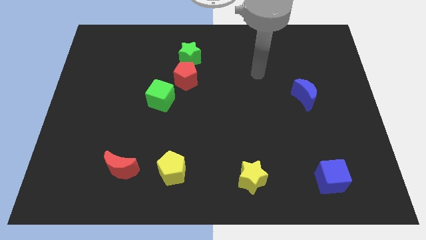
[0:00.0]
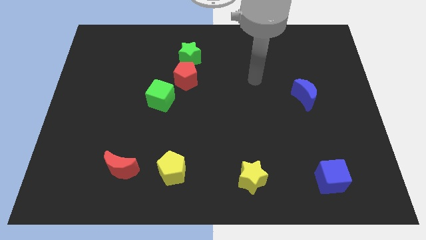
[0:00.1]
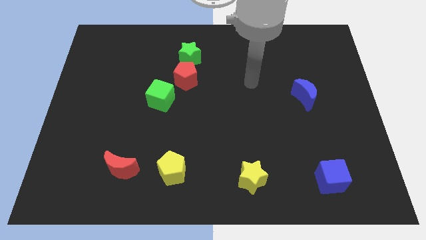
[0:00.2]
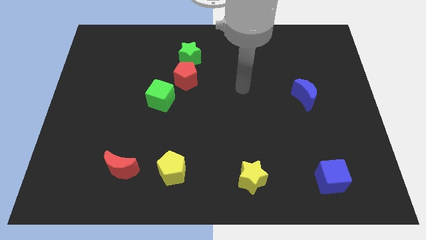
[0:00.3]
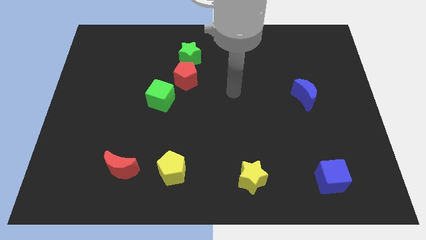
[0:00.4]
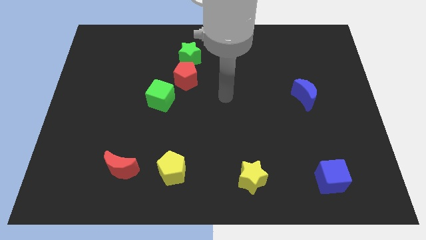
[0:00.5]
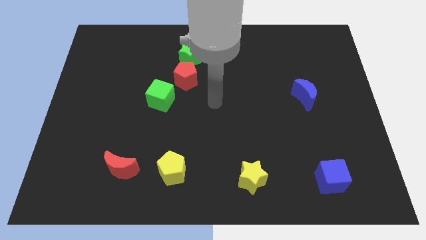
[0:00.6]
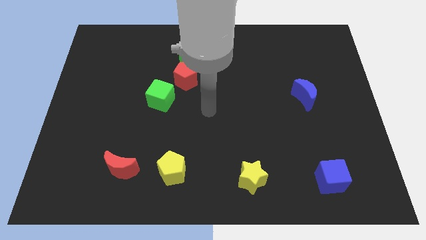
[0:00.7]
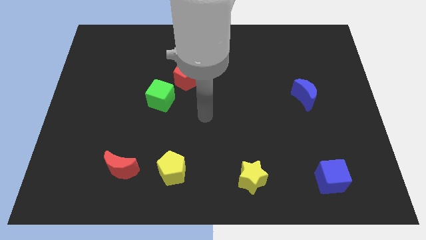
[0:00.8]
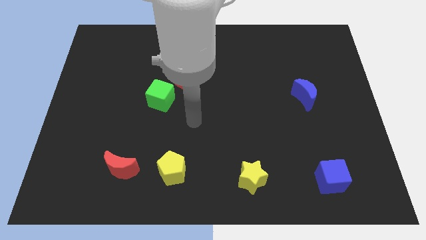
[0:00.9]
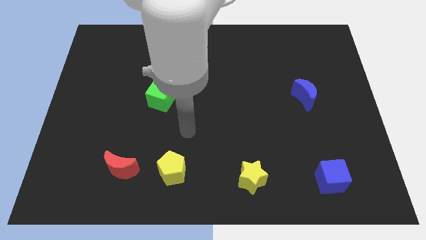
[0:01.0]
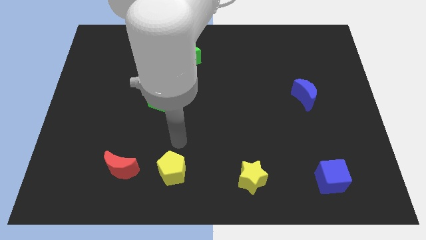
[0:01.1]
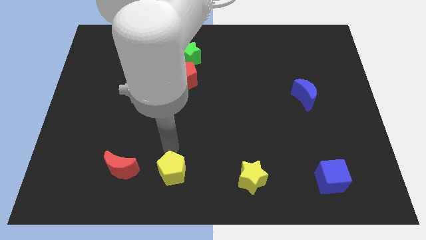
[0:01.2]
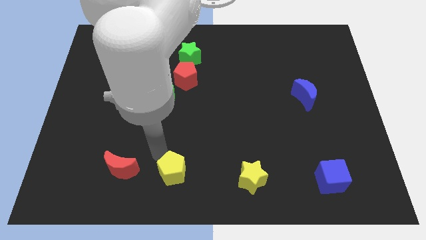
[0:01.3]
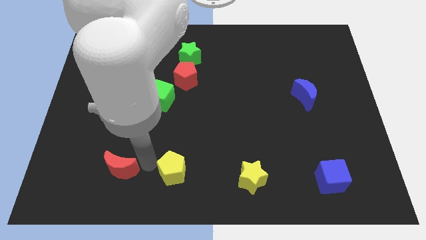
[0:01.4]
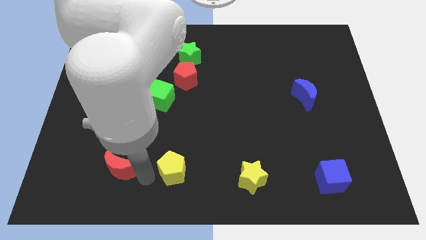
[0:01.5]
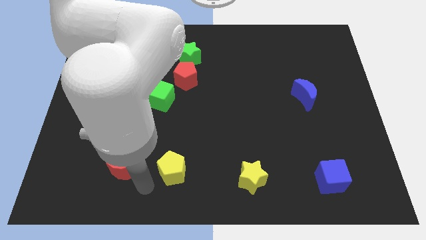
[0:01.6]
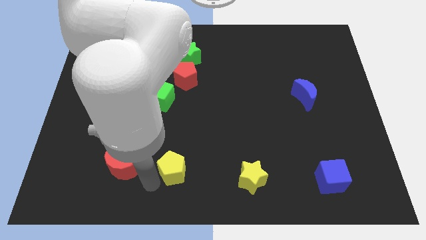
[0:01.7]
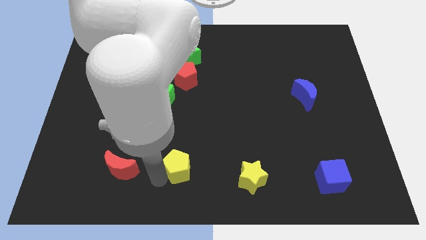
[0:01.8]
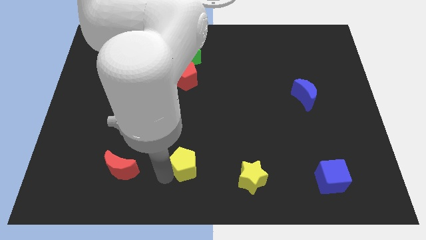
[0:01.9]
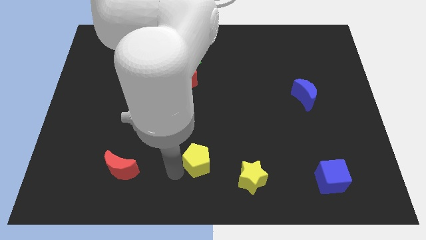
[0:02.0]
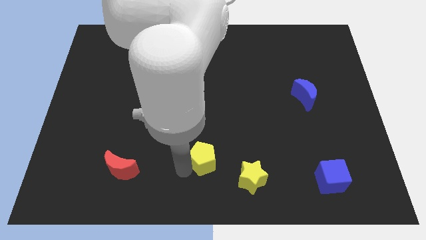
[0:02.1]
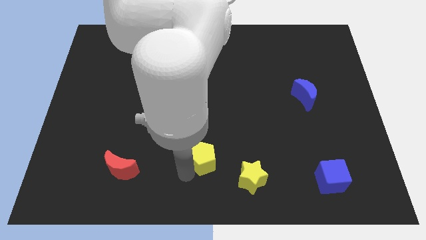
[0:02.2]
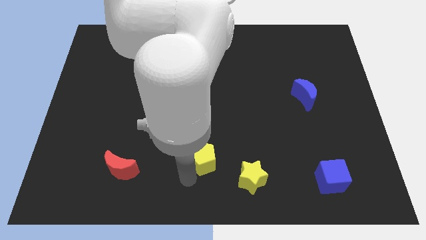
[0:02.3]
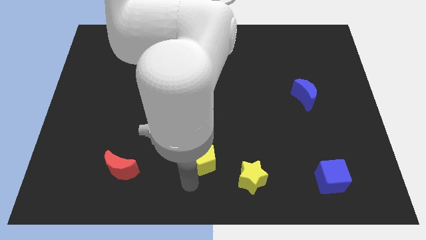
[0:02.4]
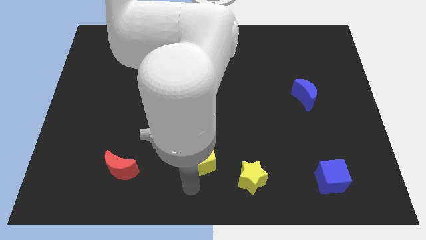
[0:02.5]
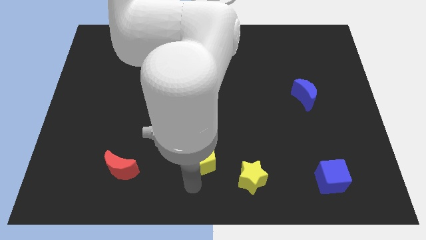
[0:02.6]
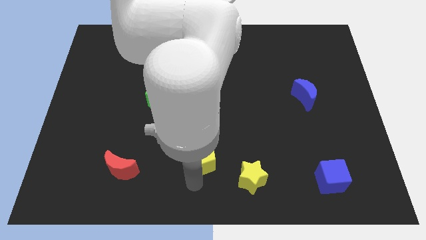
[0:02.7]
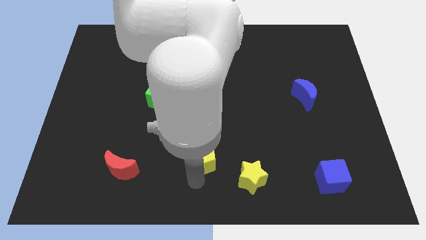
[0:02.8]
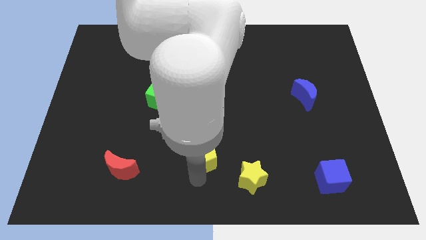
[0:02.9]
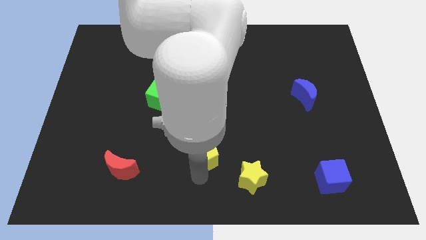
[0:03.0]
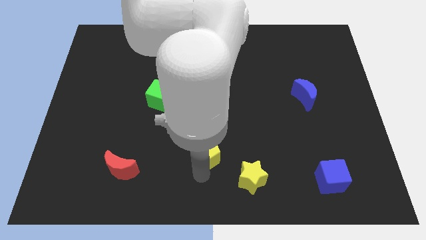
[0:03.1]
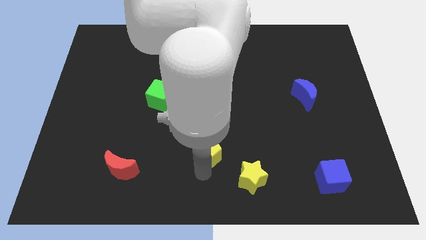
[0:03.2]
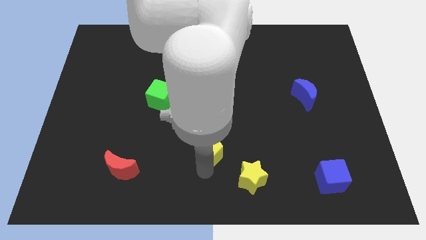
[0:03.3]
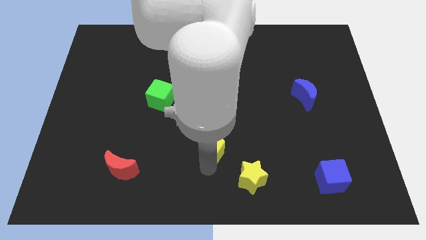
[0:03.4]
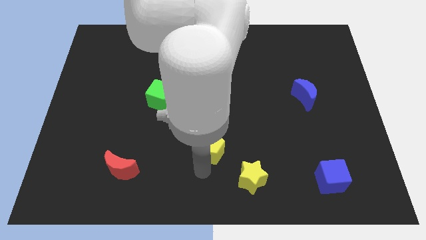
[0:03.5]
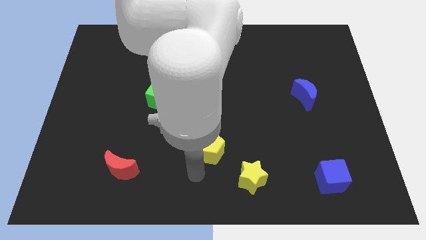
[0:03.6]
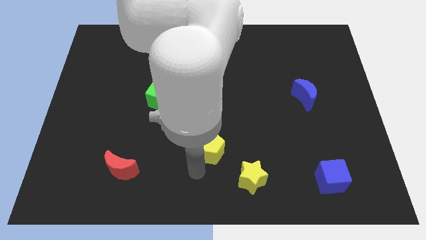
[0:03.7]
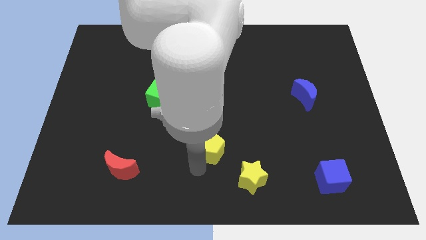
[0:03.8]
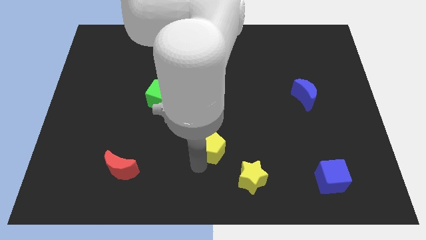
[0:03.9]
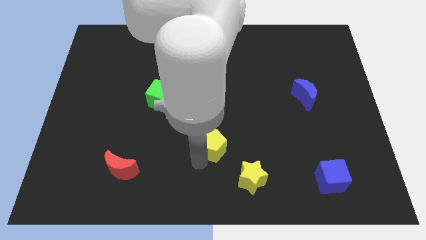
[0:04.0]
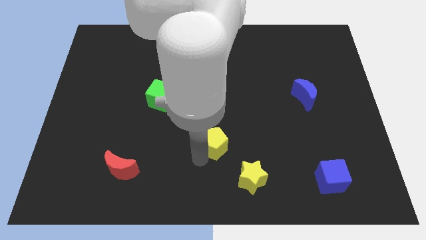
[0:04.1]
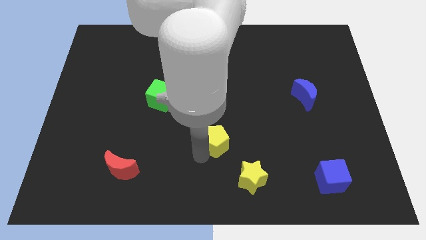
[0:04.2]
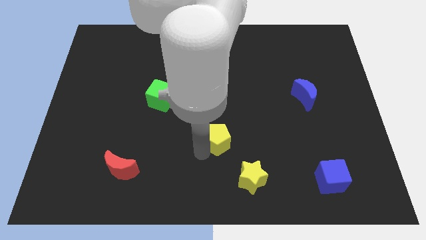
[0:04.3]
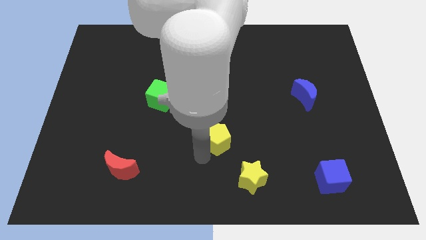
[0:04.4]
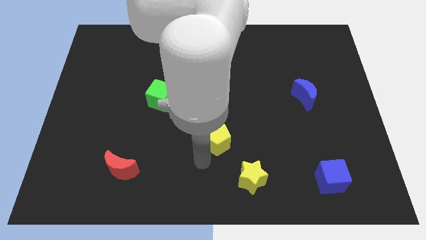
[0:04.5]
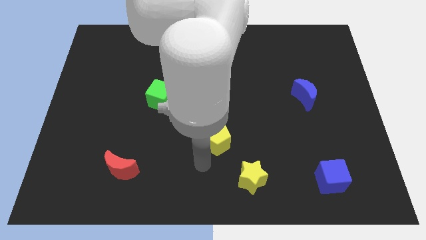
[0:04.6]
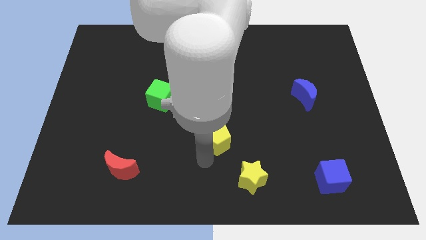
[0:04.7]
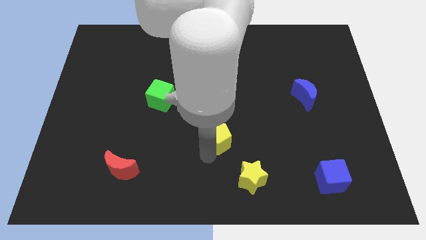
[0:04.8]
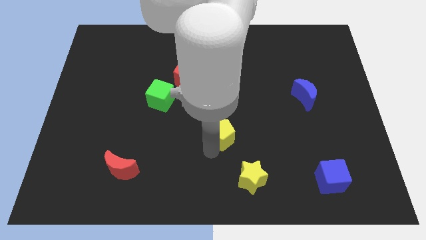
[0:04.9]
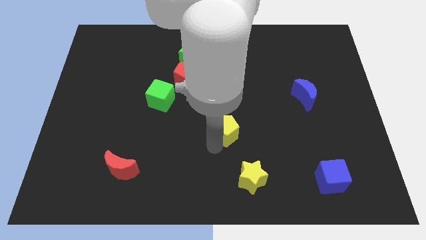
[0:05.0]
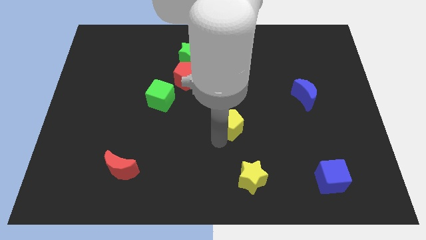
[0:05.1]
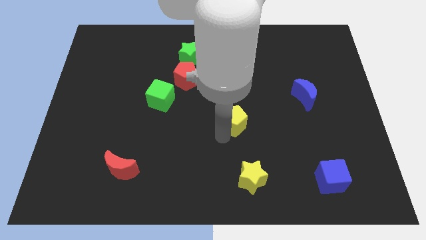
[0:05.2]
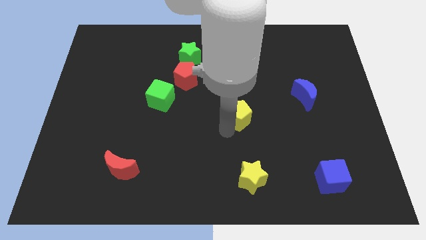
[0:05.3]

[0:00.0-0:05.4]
push the yellow pentagon up and then to the right

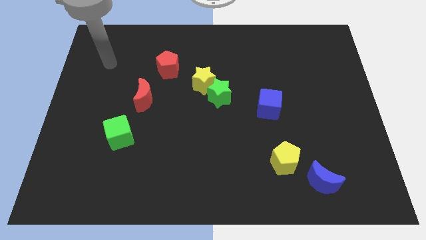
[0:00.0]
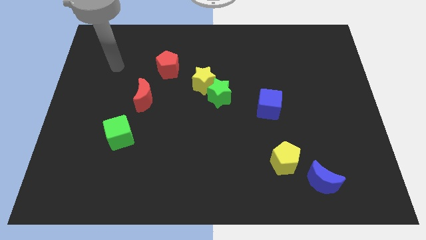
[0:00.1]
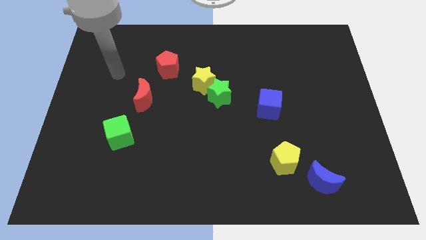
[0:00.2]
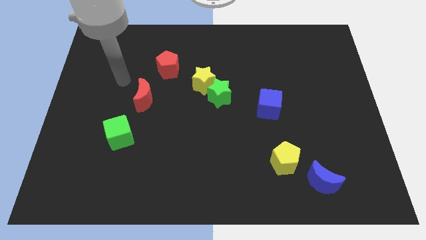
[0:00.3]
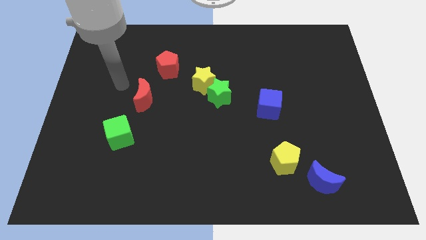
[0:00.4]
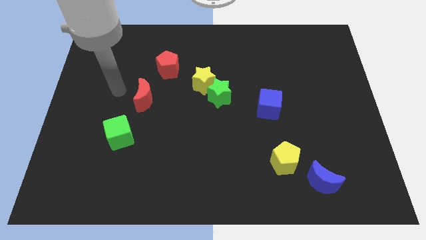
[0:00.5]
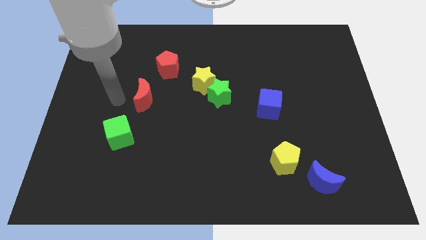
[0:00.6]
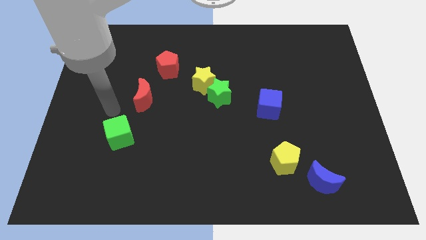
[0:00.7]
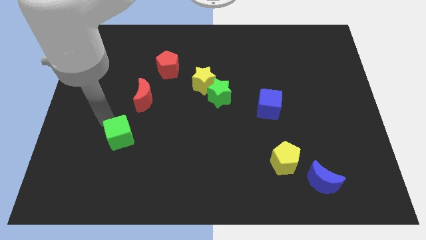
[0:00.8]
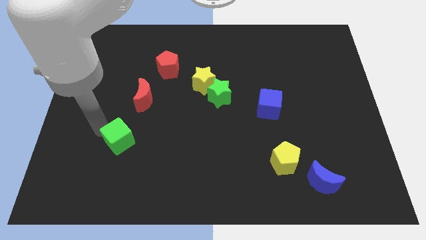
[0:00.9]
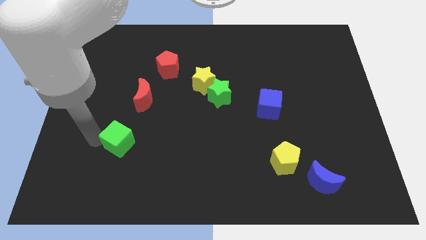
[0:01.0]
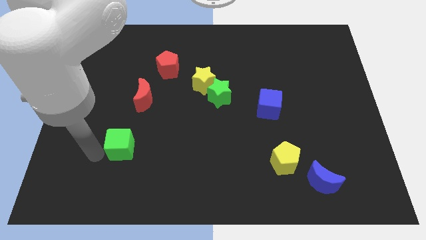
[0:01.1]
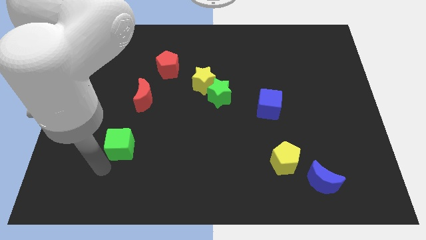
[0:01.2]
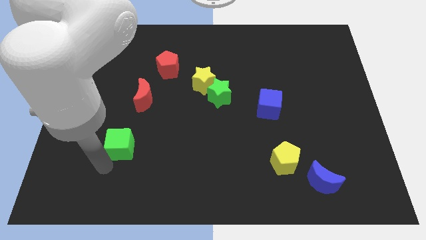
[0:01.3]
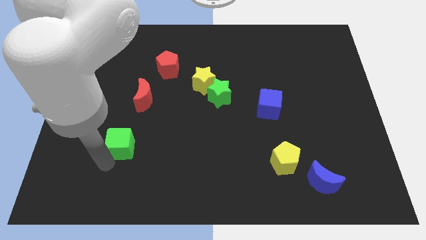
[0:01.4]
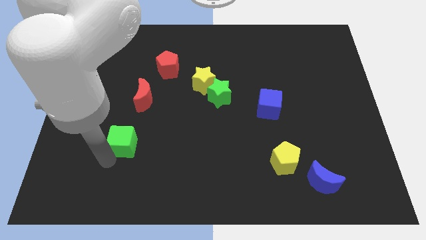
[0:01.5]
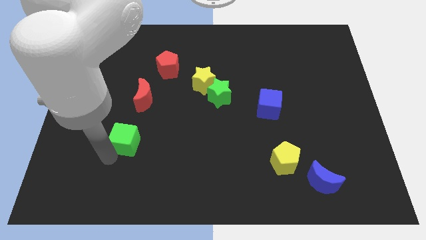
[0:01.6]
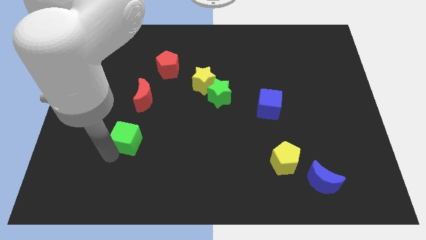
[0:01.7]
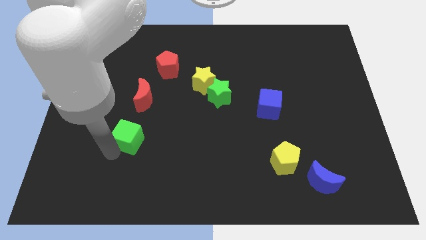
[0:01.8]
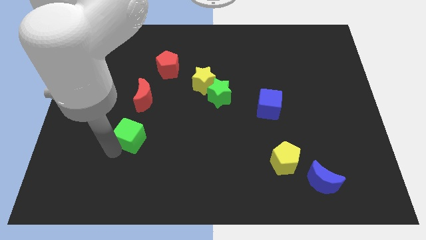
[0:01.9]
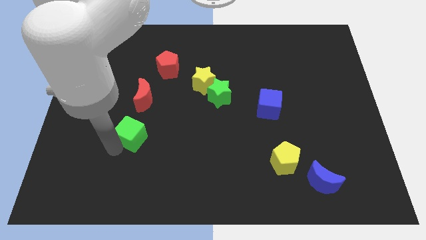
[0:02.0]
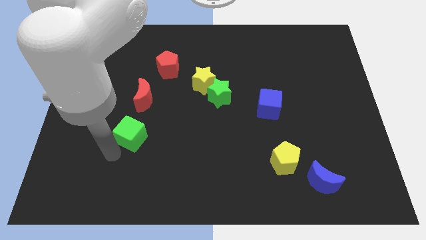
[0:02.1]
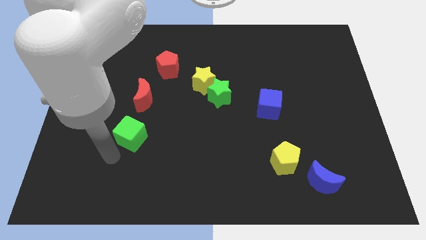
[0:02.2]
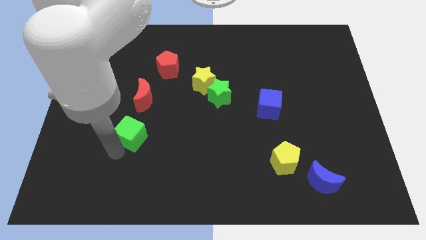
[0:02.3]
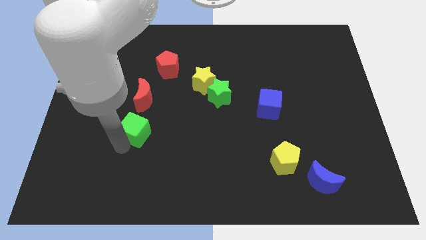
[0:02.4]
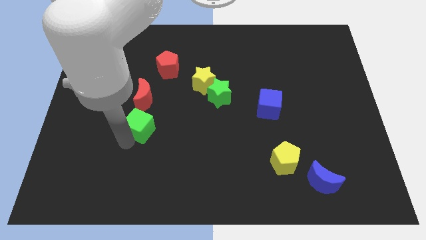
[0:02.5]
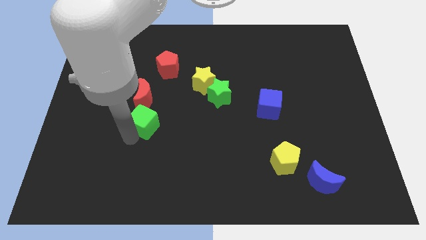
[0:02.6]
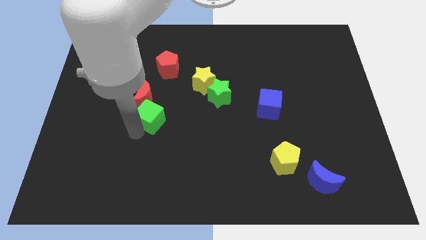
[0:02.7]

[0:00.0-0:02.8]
slightly slide the green cube upwards and then right
